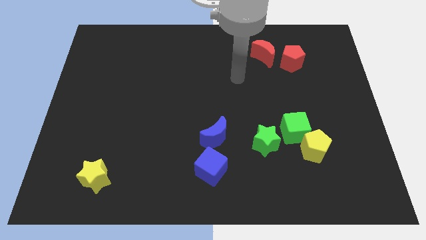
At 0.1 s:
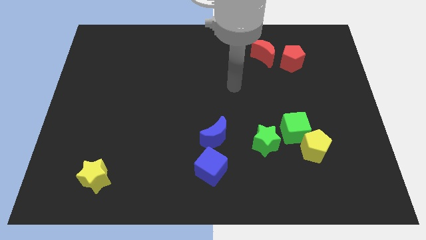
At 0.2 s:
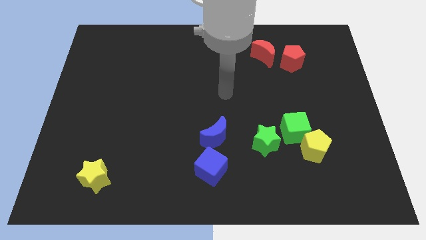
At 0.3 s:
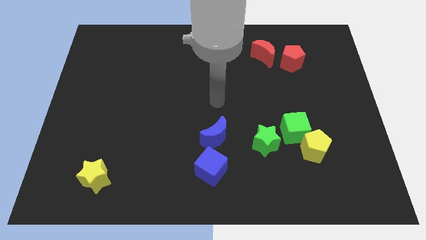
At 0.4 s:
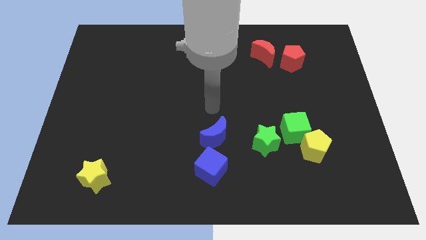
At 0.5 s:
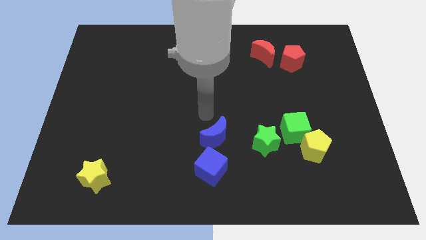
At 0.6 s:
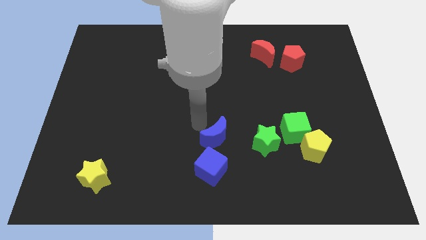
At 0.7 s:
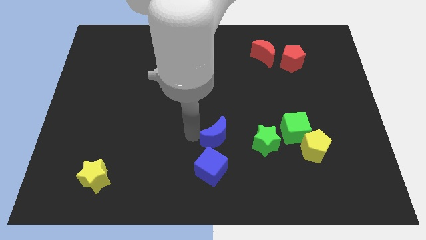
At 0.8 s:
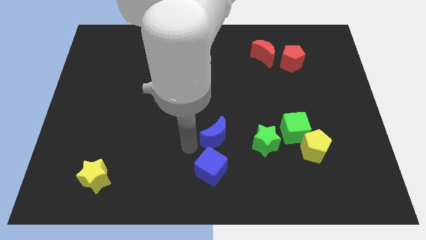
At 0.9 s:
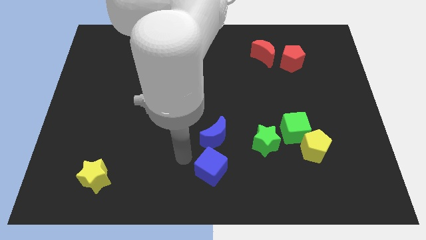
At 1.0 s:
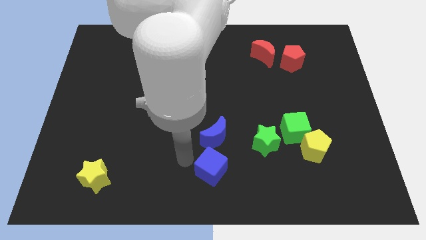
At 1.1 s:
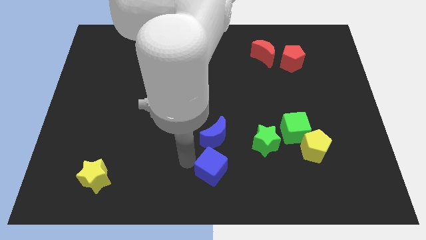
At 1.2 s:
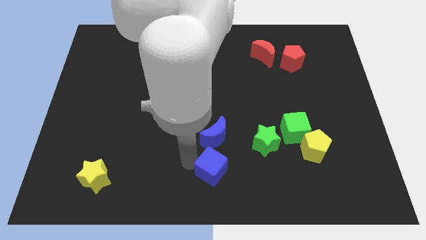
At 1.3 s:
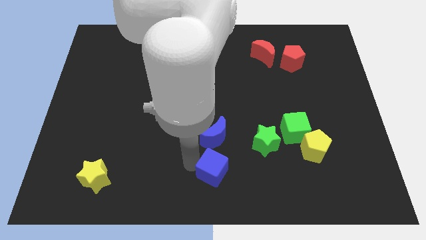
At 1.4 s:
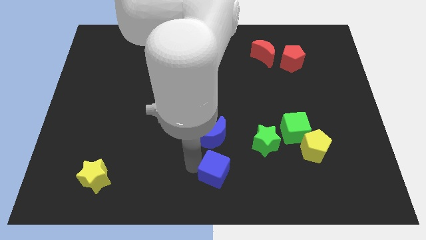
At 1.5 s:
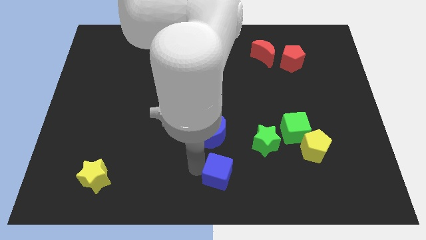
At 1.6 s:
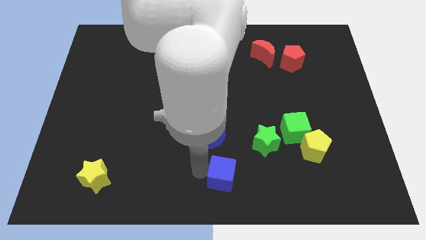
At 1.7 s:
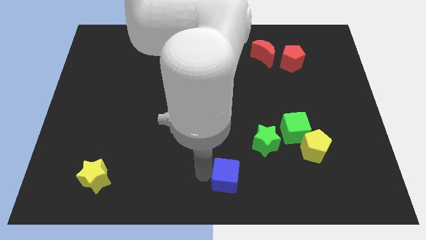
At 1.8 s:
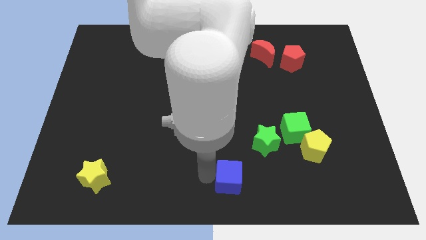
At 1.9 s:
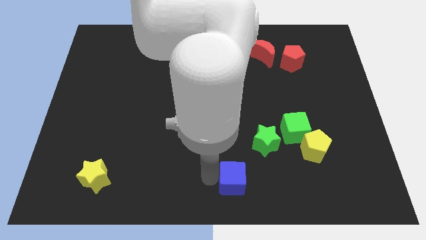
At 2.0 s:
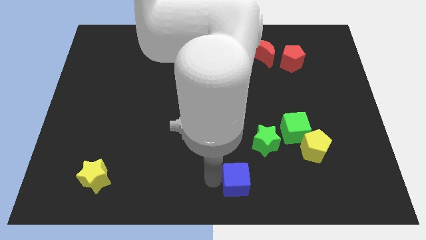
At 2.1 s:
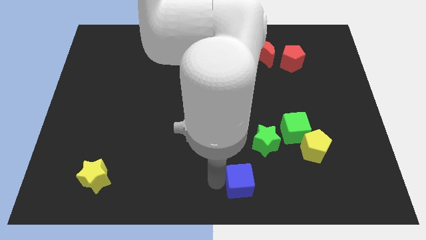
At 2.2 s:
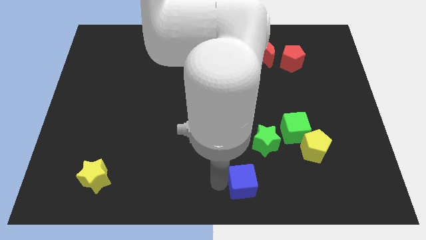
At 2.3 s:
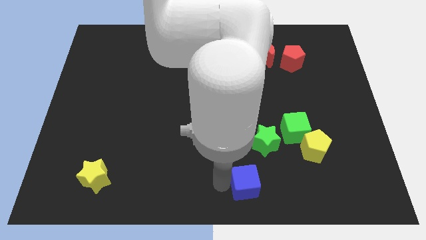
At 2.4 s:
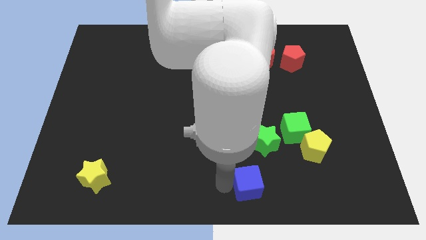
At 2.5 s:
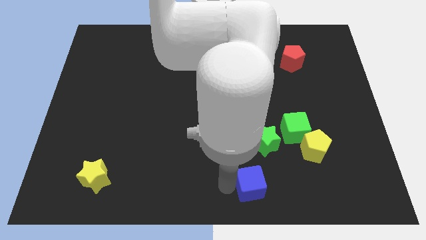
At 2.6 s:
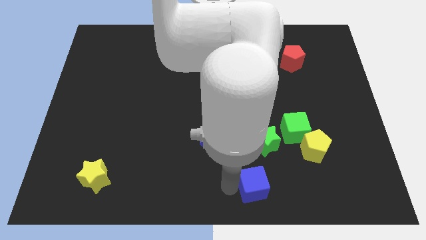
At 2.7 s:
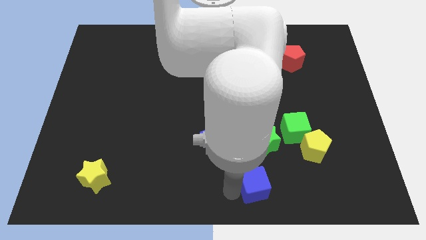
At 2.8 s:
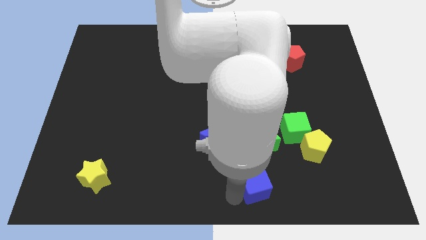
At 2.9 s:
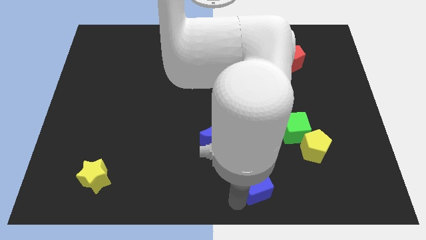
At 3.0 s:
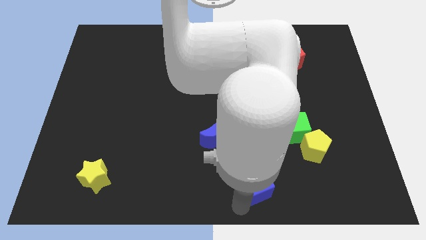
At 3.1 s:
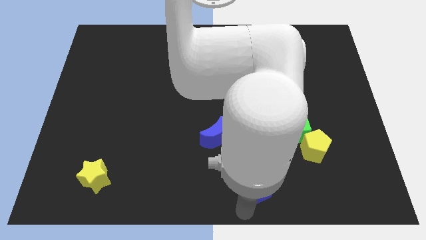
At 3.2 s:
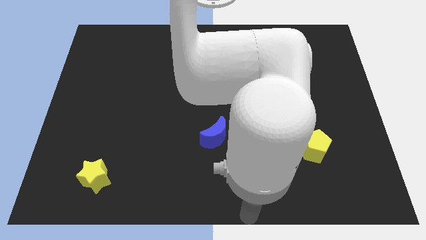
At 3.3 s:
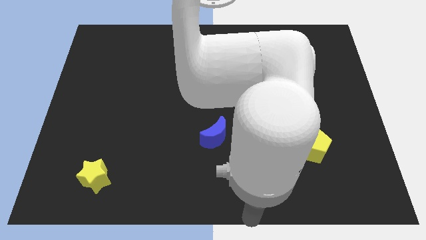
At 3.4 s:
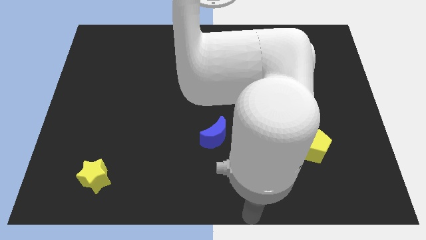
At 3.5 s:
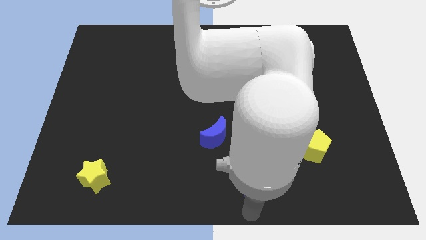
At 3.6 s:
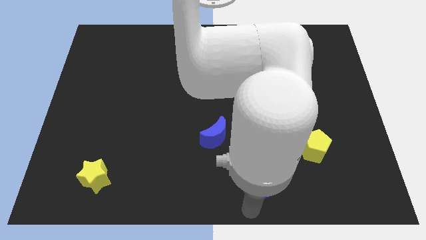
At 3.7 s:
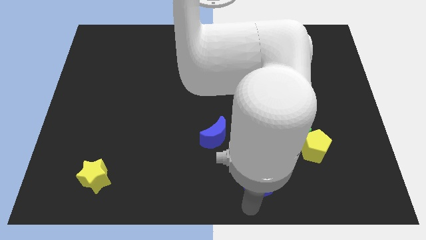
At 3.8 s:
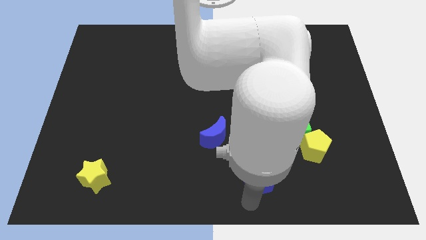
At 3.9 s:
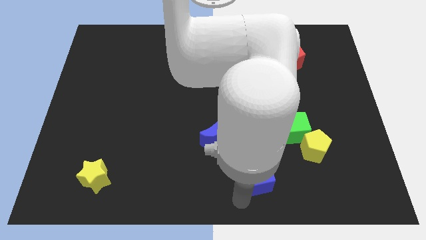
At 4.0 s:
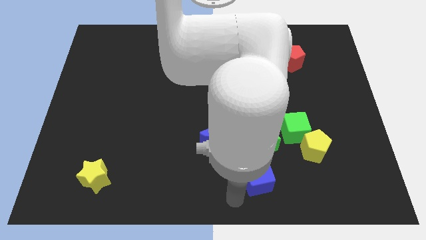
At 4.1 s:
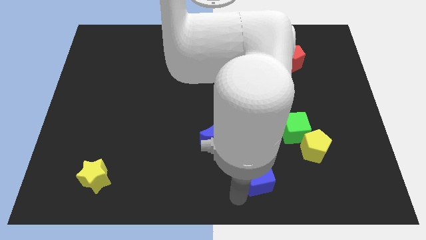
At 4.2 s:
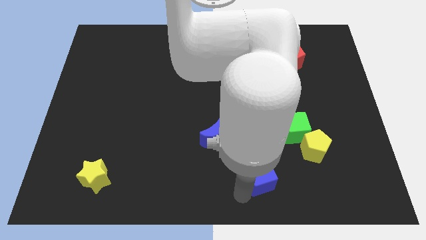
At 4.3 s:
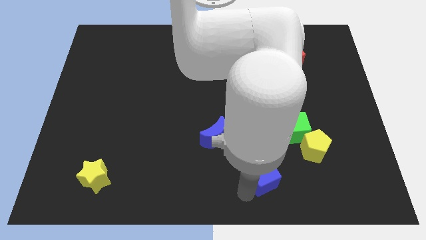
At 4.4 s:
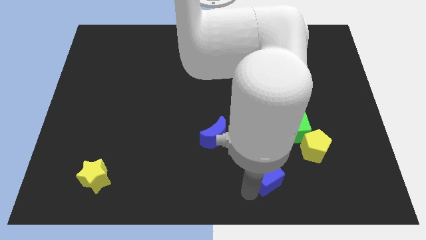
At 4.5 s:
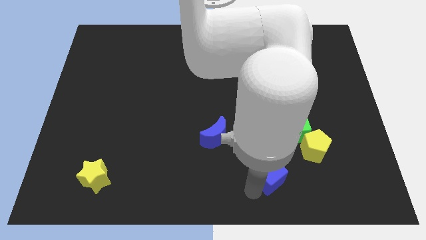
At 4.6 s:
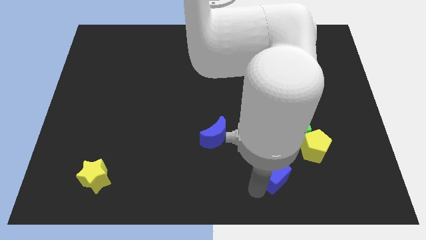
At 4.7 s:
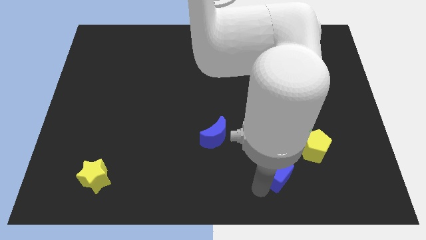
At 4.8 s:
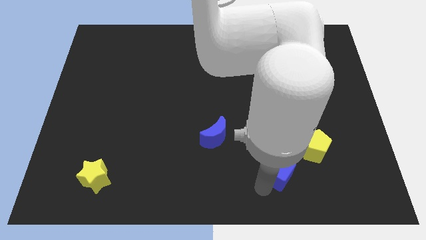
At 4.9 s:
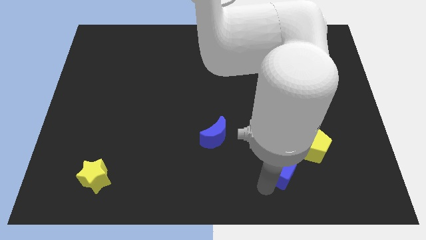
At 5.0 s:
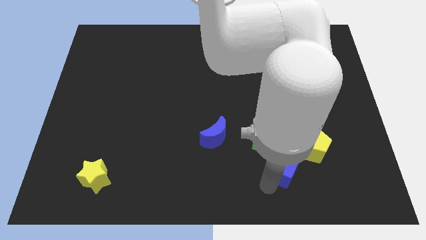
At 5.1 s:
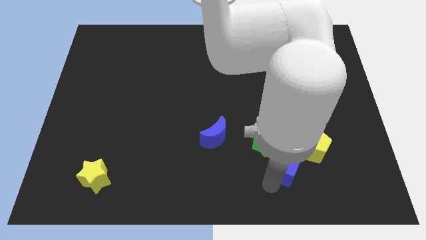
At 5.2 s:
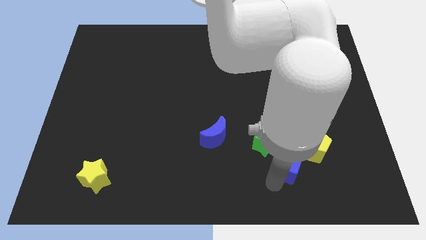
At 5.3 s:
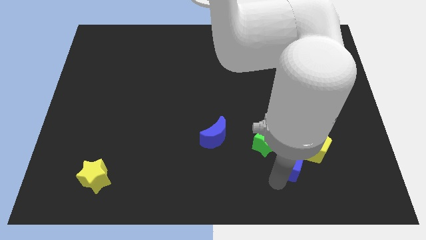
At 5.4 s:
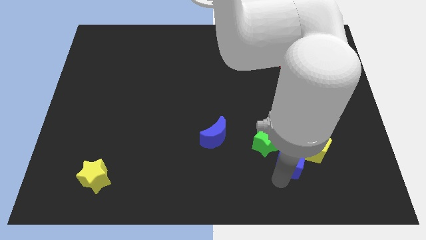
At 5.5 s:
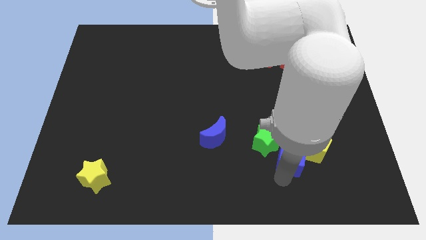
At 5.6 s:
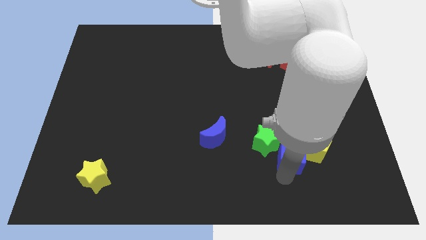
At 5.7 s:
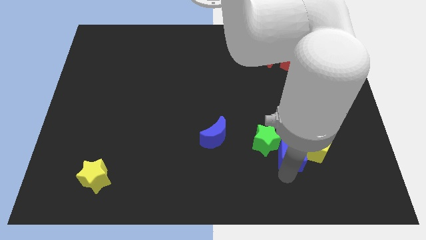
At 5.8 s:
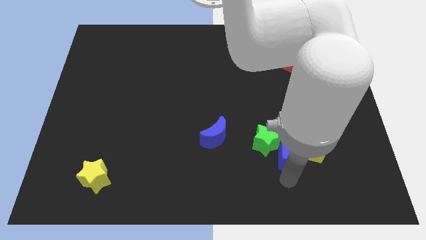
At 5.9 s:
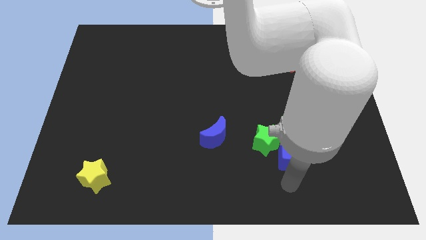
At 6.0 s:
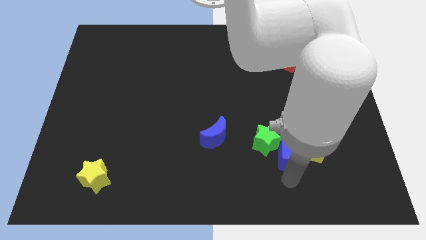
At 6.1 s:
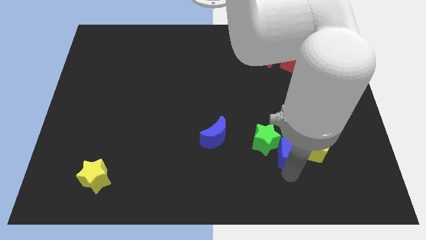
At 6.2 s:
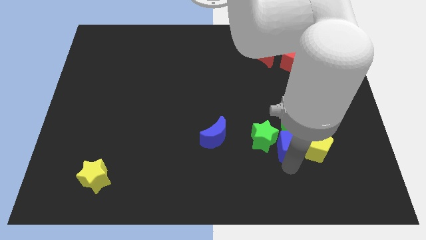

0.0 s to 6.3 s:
slide the blue cube to the green cube

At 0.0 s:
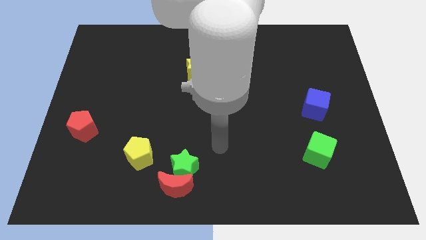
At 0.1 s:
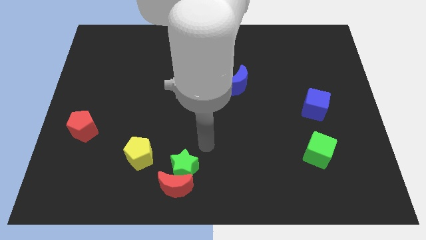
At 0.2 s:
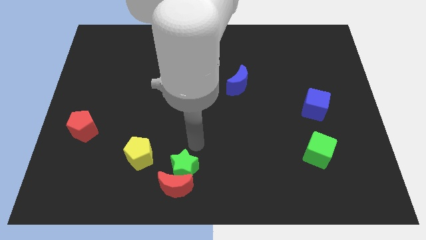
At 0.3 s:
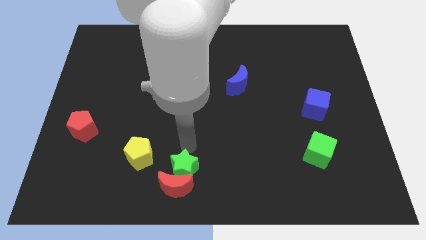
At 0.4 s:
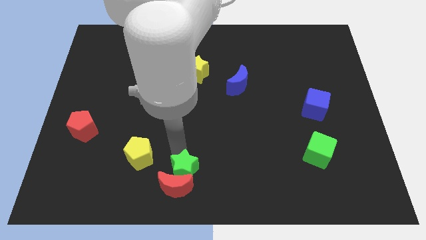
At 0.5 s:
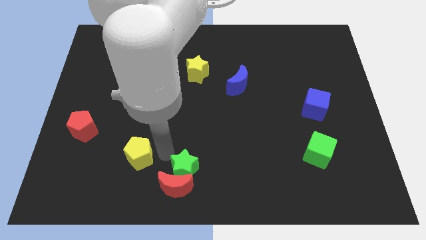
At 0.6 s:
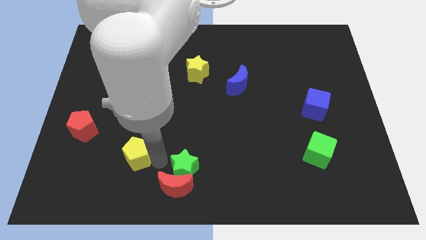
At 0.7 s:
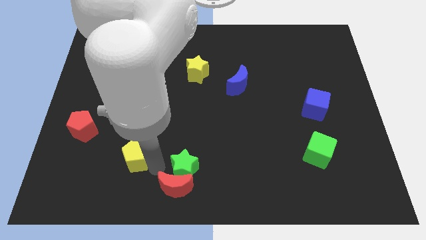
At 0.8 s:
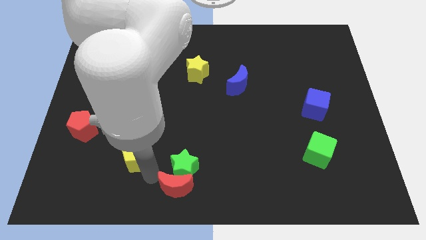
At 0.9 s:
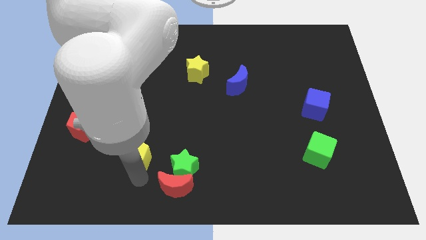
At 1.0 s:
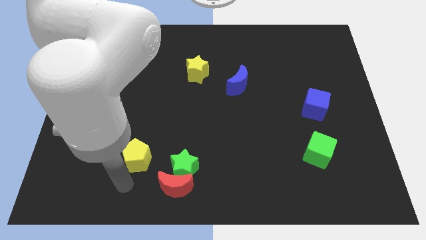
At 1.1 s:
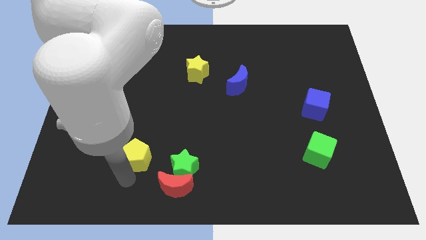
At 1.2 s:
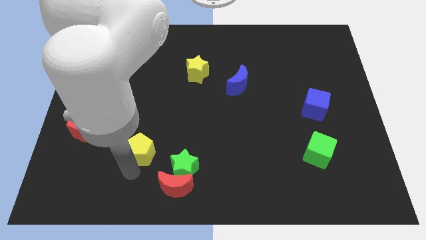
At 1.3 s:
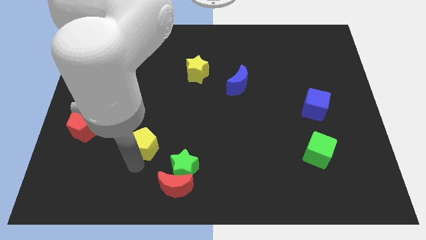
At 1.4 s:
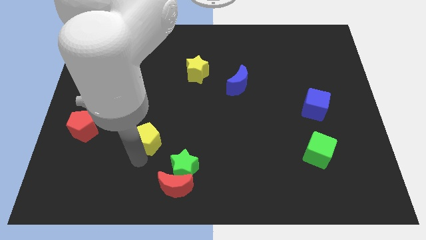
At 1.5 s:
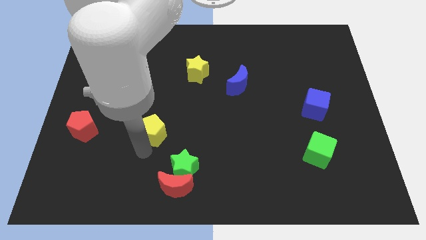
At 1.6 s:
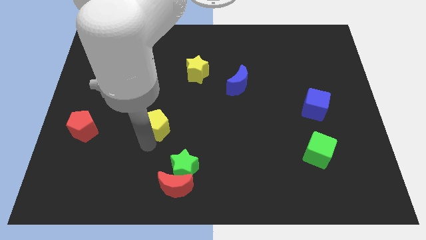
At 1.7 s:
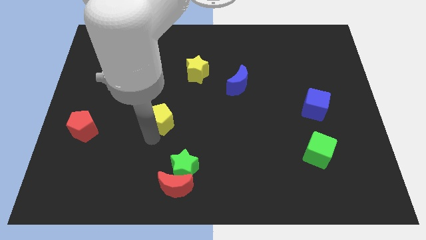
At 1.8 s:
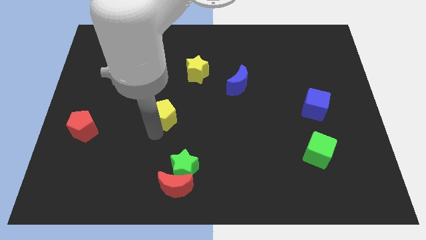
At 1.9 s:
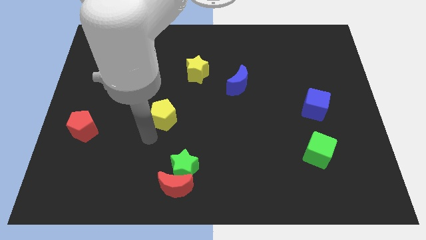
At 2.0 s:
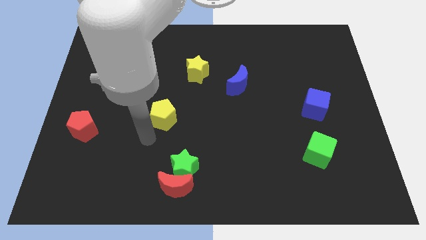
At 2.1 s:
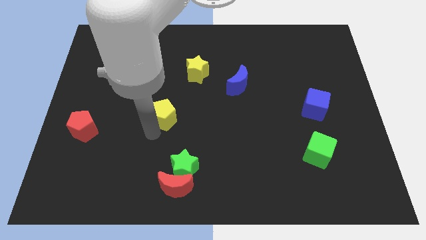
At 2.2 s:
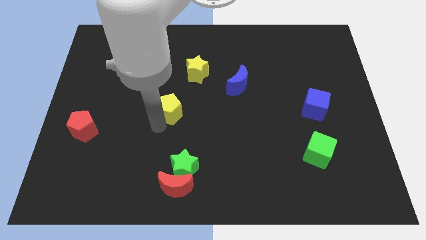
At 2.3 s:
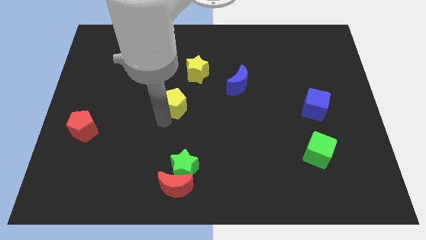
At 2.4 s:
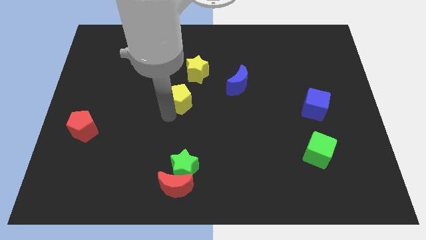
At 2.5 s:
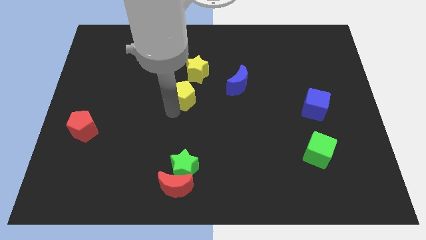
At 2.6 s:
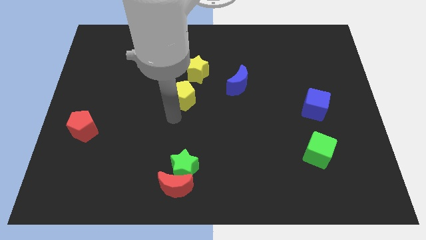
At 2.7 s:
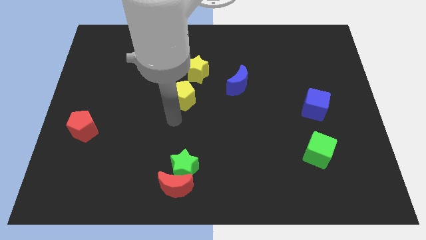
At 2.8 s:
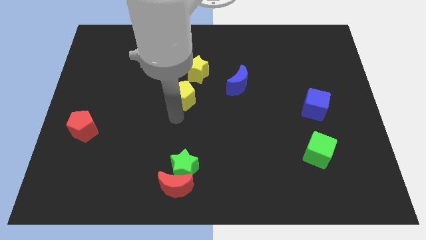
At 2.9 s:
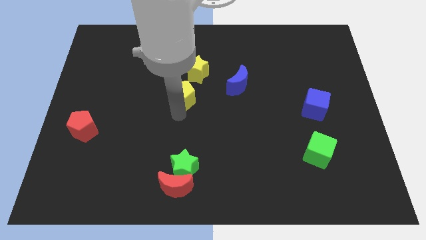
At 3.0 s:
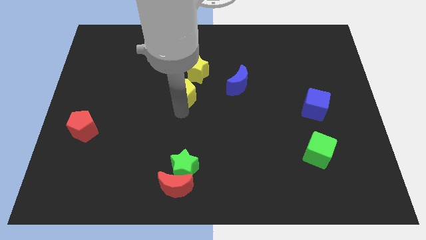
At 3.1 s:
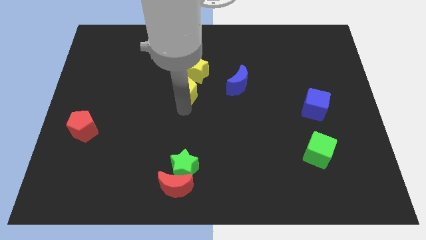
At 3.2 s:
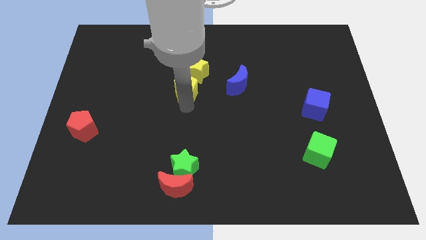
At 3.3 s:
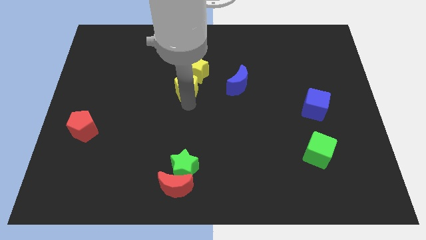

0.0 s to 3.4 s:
slide the yellow pentagon towards the yellow star
